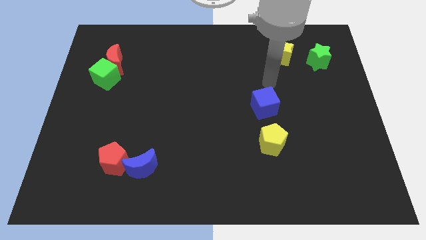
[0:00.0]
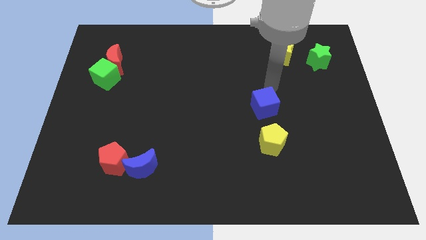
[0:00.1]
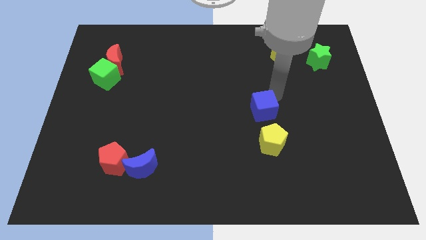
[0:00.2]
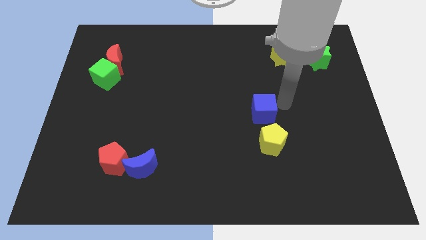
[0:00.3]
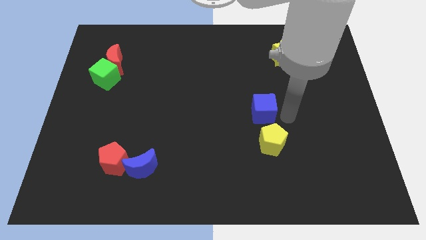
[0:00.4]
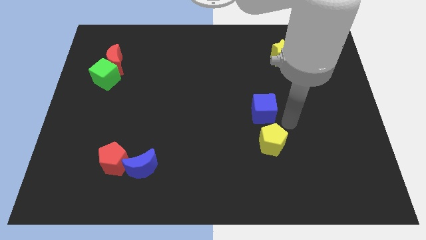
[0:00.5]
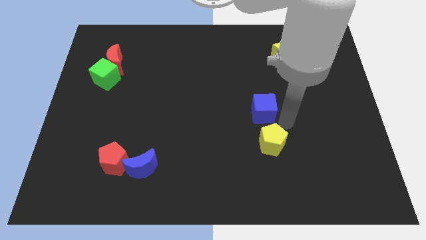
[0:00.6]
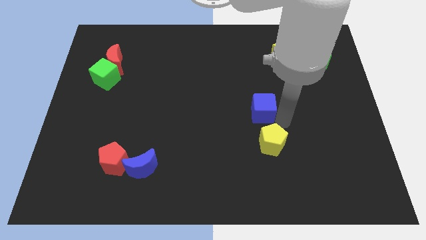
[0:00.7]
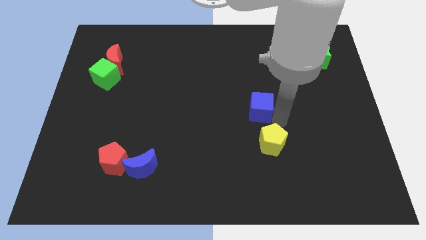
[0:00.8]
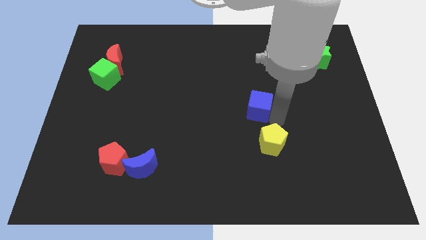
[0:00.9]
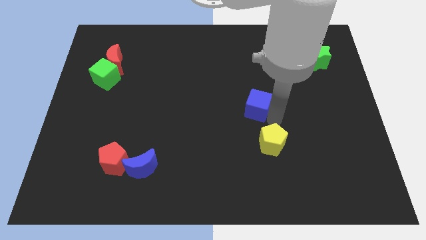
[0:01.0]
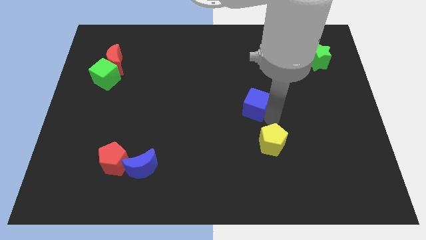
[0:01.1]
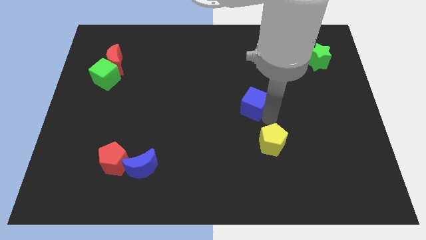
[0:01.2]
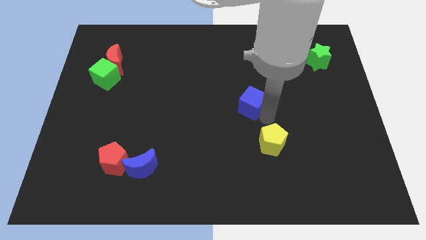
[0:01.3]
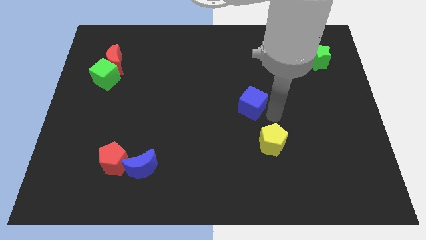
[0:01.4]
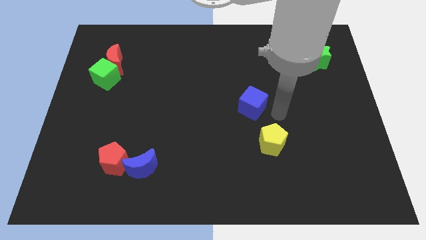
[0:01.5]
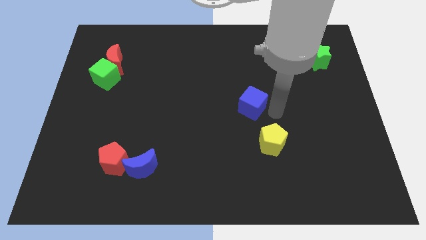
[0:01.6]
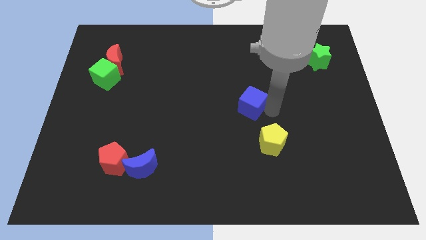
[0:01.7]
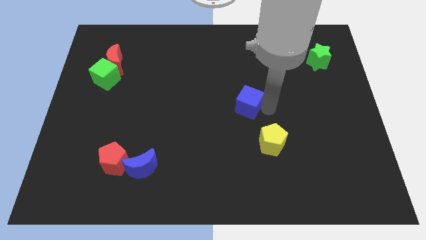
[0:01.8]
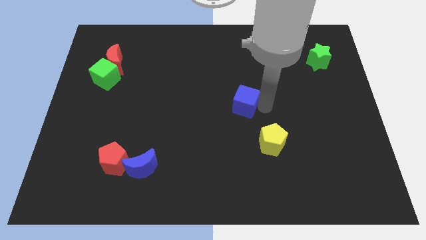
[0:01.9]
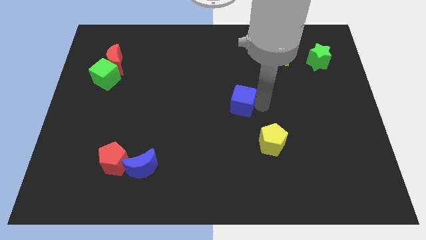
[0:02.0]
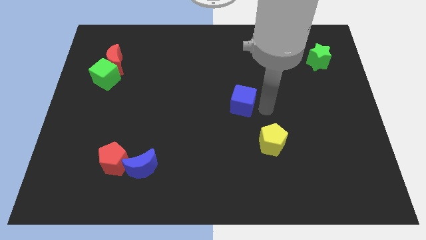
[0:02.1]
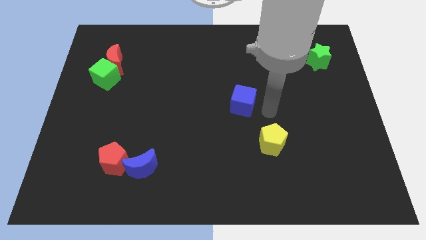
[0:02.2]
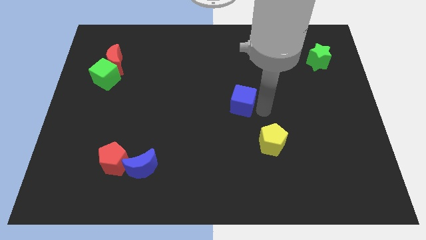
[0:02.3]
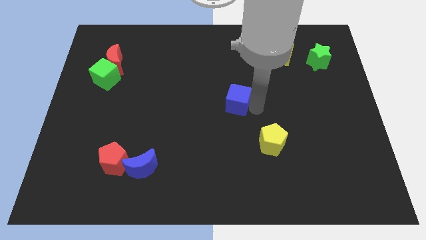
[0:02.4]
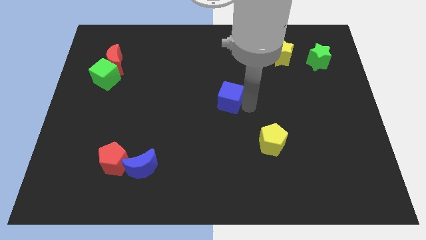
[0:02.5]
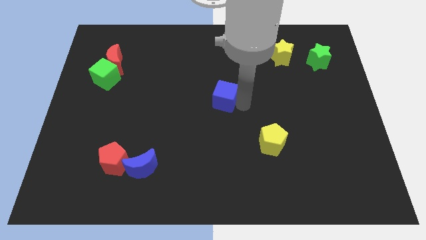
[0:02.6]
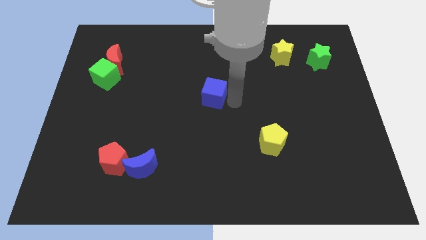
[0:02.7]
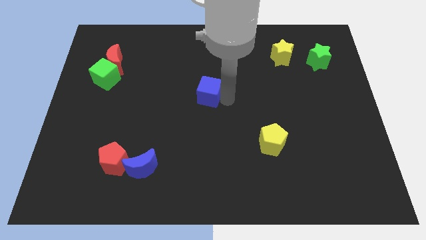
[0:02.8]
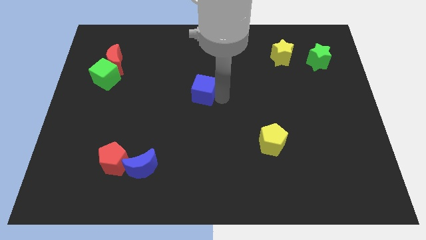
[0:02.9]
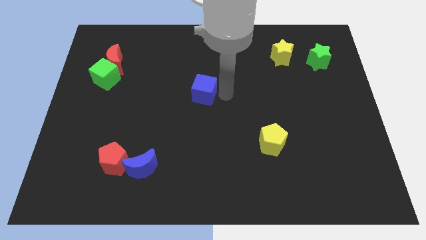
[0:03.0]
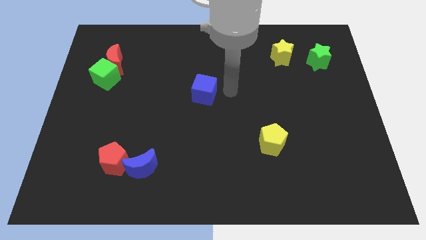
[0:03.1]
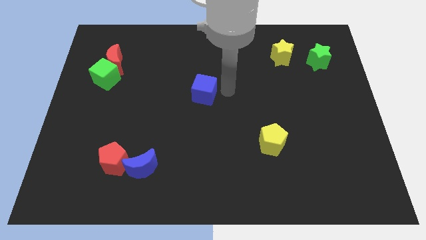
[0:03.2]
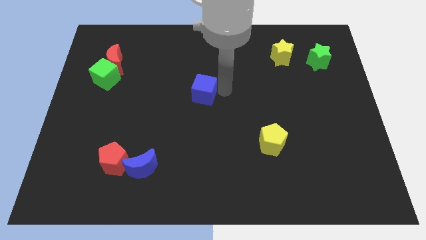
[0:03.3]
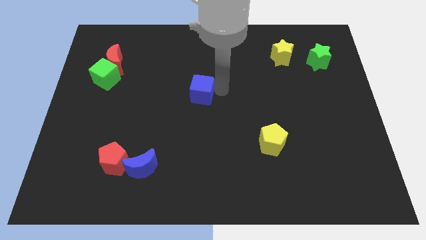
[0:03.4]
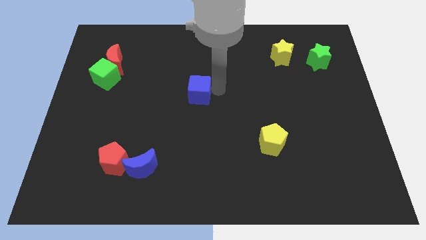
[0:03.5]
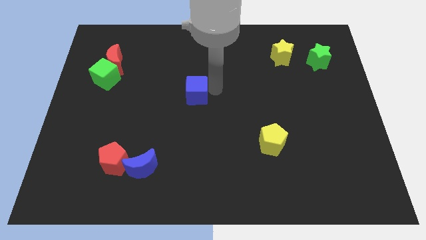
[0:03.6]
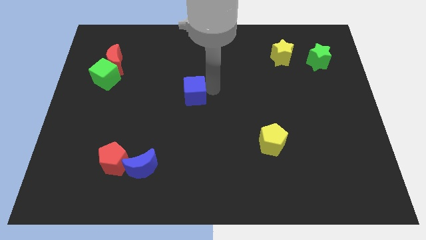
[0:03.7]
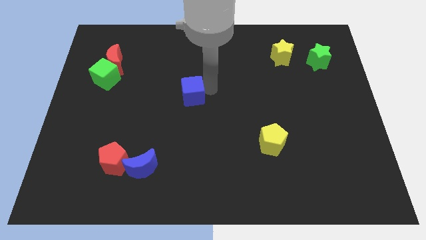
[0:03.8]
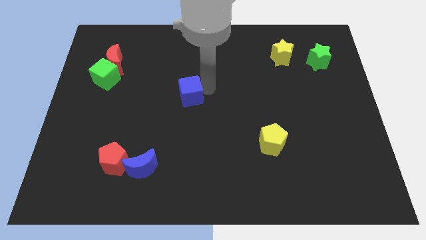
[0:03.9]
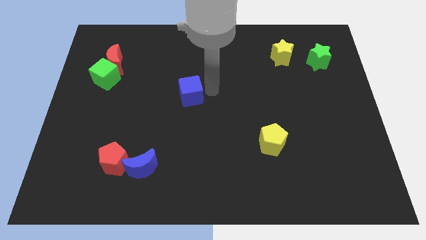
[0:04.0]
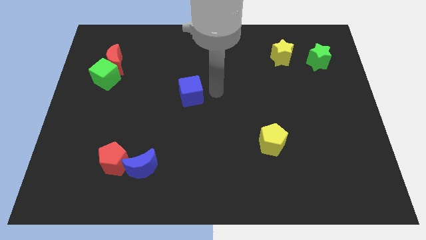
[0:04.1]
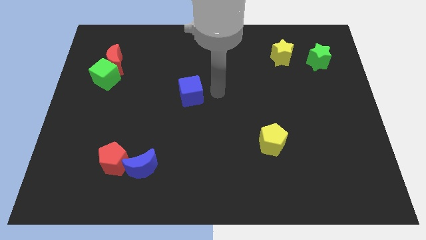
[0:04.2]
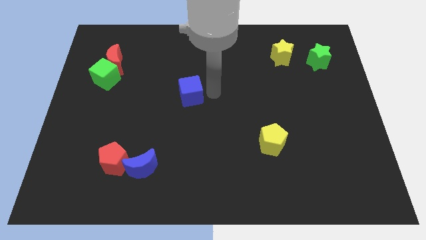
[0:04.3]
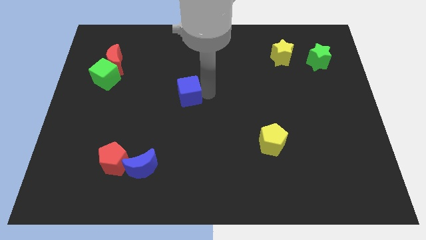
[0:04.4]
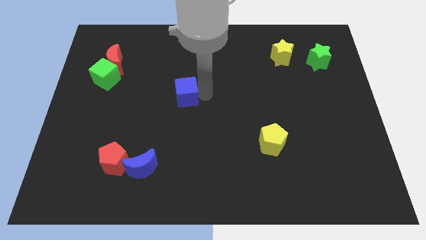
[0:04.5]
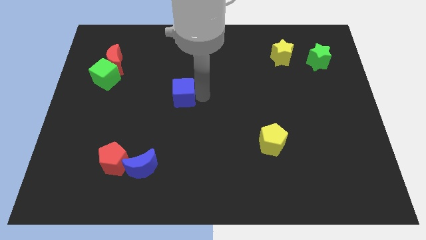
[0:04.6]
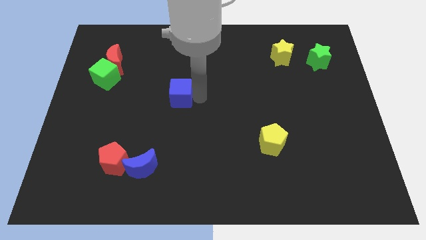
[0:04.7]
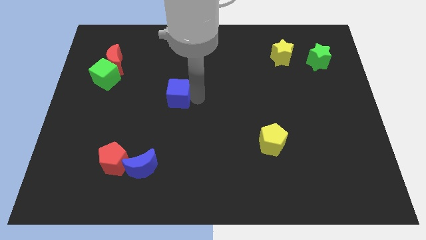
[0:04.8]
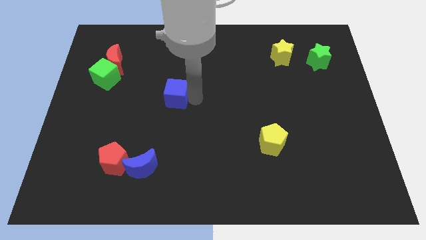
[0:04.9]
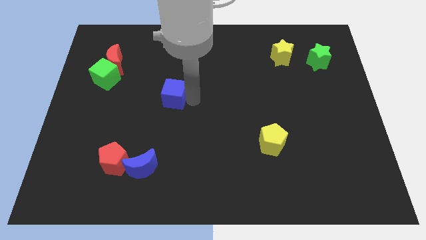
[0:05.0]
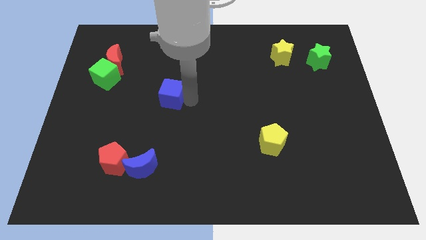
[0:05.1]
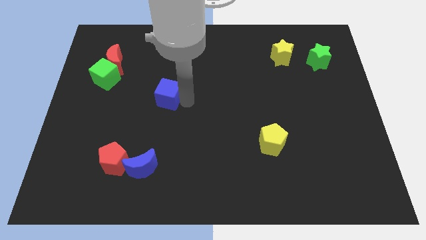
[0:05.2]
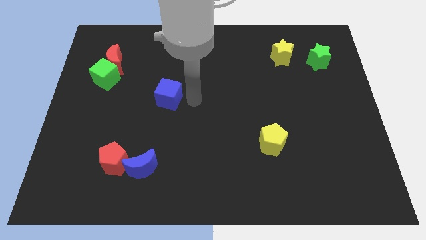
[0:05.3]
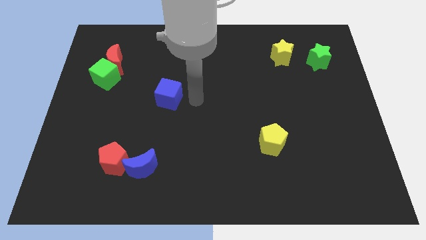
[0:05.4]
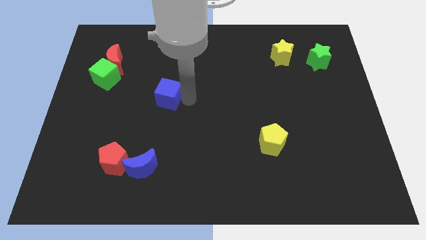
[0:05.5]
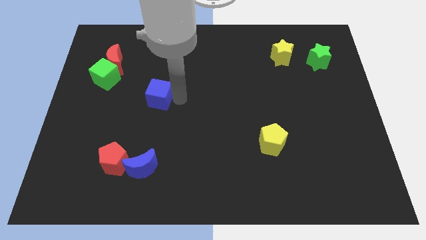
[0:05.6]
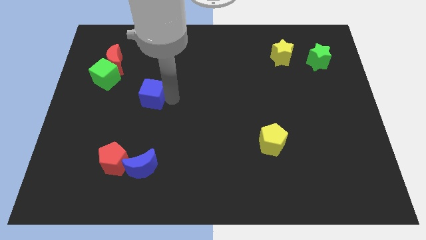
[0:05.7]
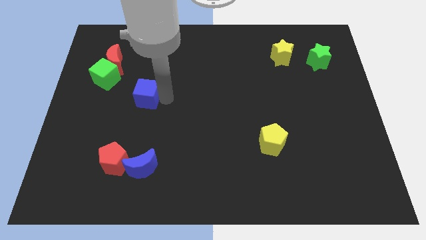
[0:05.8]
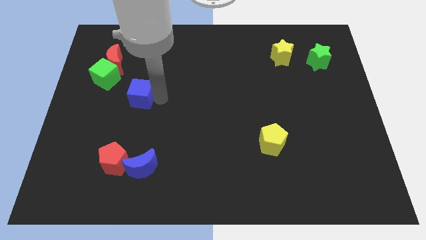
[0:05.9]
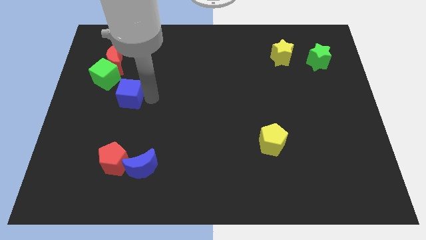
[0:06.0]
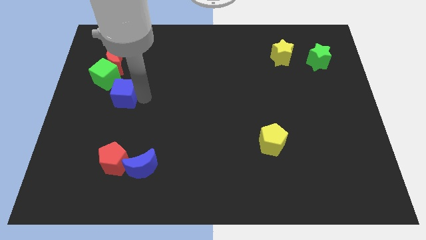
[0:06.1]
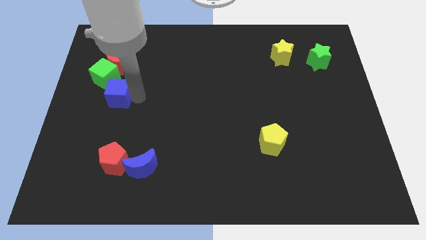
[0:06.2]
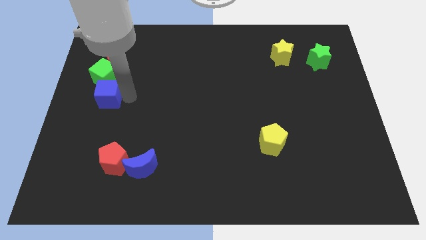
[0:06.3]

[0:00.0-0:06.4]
slide the blue cube to the center left

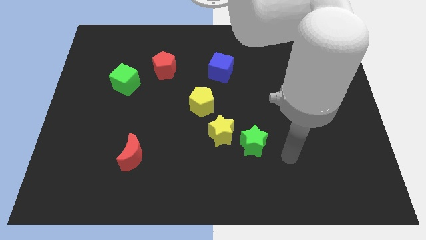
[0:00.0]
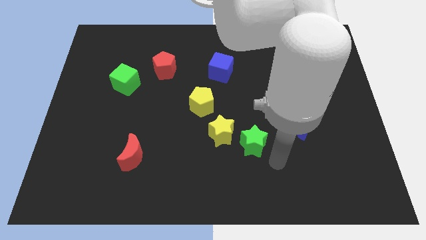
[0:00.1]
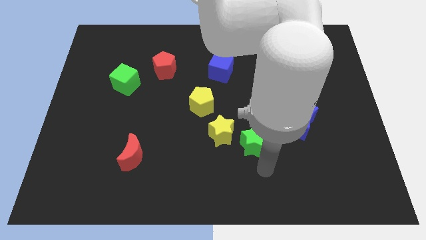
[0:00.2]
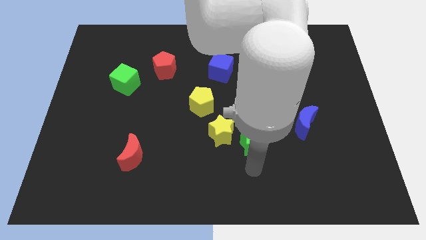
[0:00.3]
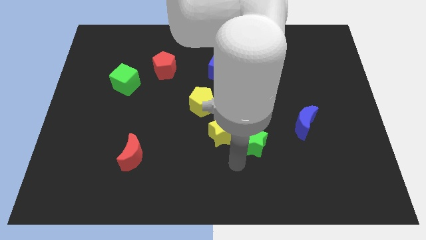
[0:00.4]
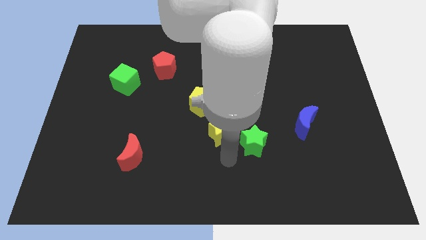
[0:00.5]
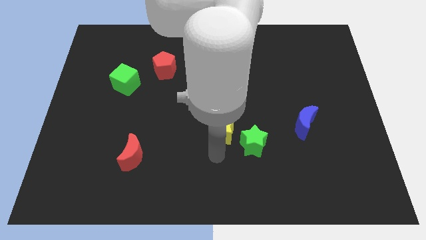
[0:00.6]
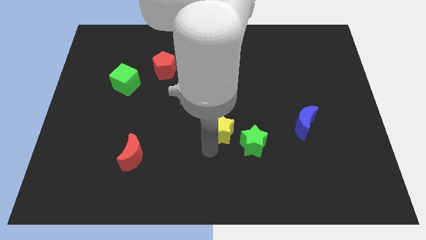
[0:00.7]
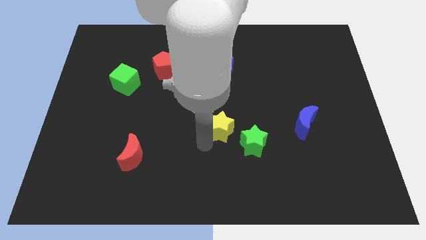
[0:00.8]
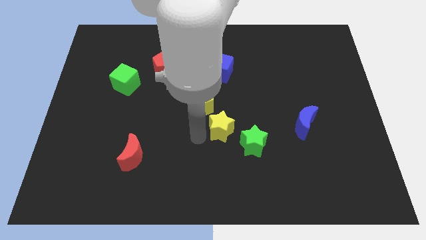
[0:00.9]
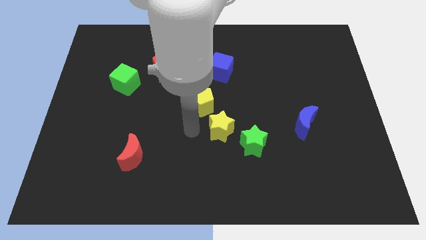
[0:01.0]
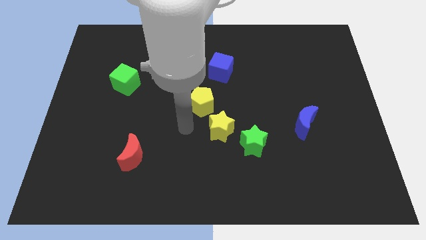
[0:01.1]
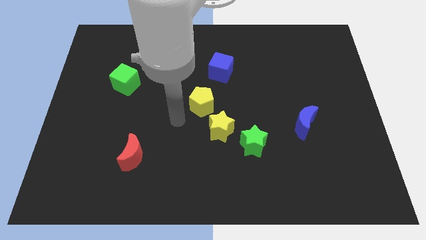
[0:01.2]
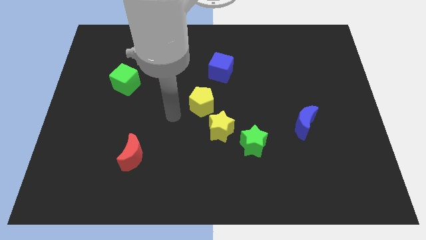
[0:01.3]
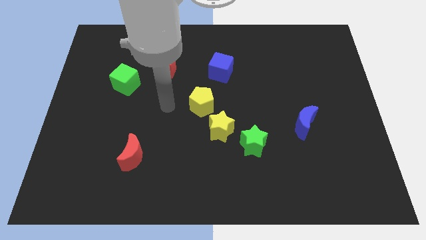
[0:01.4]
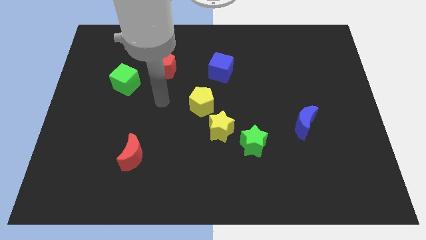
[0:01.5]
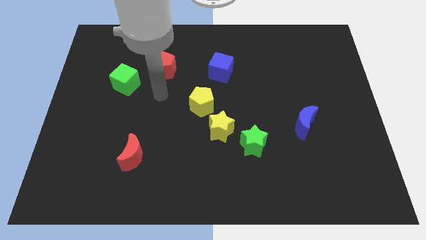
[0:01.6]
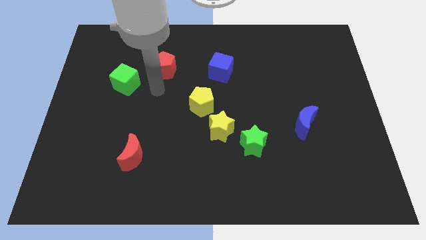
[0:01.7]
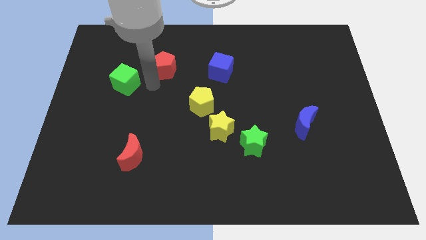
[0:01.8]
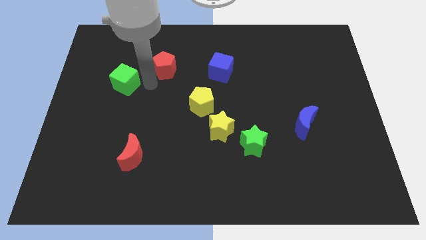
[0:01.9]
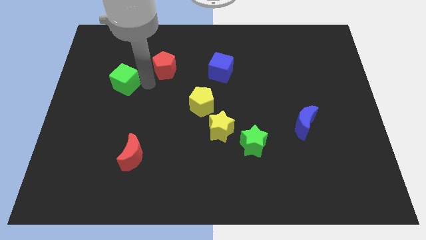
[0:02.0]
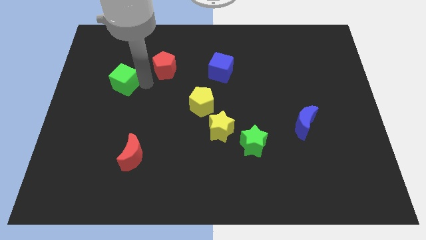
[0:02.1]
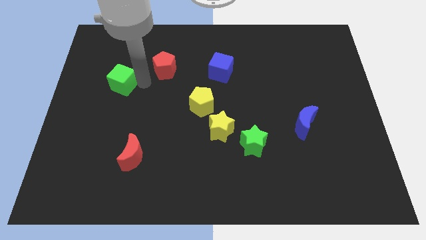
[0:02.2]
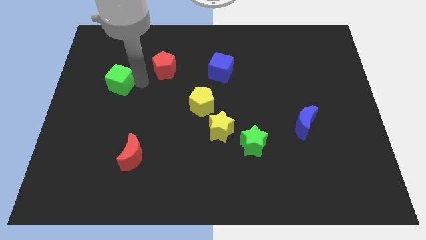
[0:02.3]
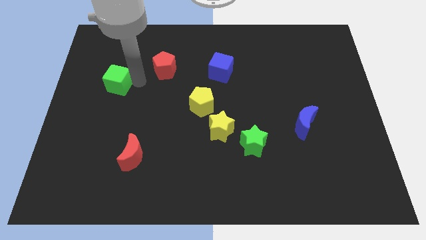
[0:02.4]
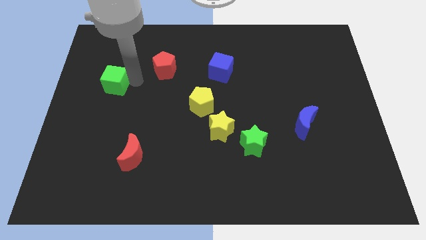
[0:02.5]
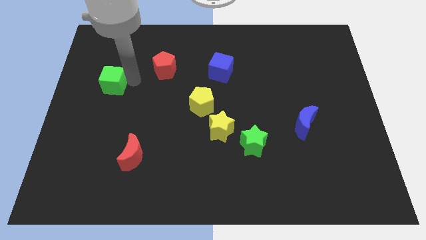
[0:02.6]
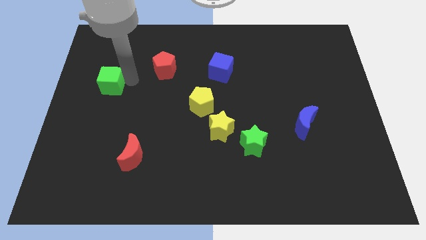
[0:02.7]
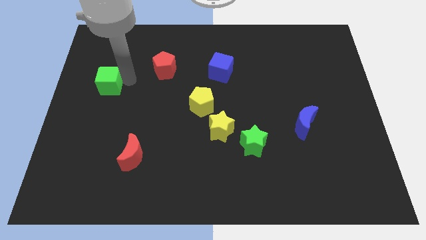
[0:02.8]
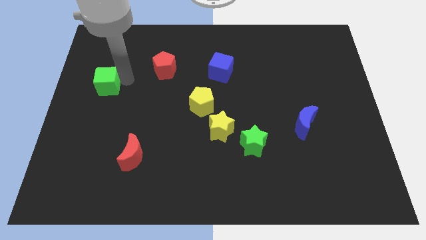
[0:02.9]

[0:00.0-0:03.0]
move the green cube to the left side
